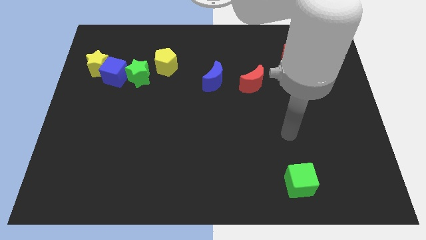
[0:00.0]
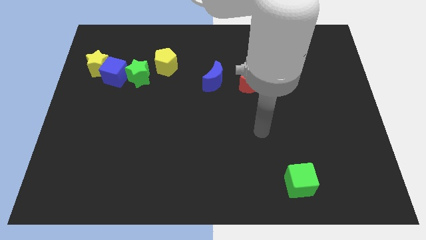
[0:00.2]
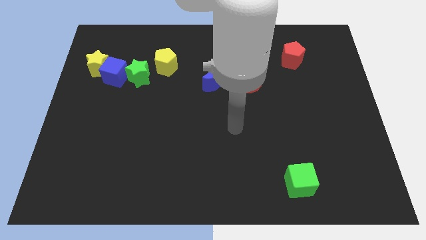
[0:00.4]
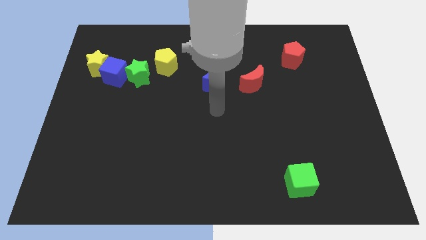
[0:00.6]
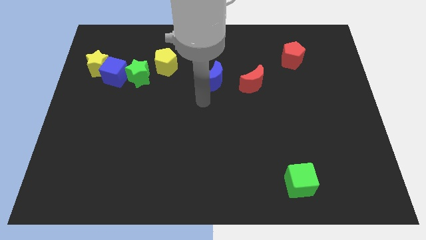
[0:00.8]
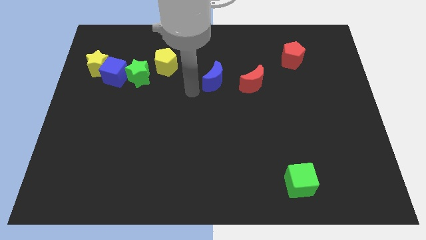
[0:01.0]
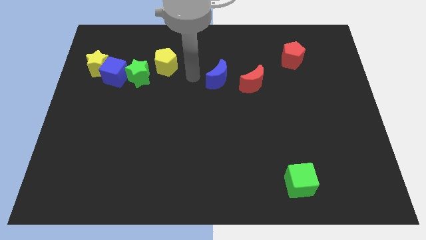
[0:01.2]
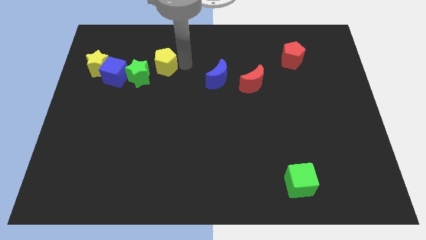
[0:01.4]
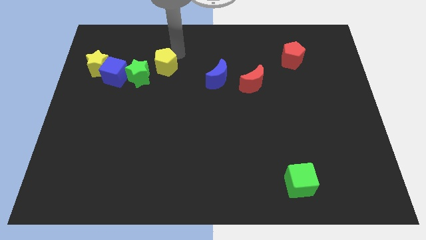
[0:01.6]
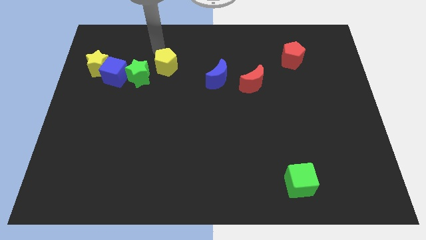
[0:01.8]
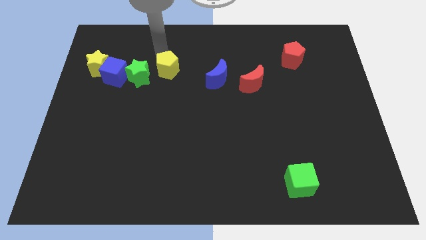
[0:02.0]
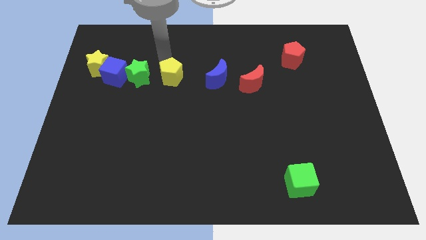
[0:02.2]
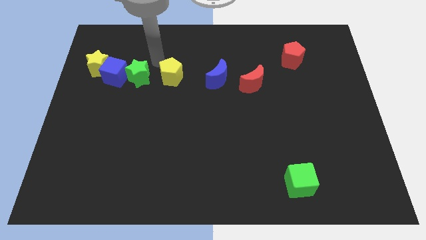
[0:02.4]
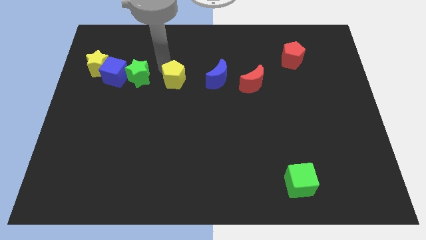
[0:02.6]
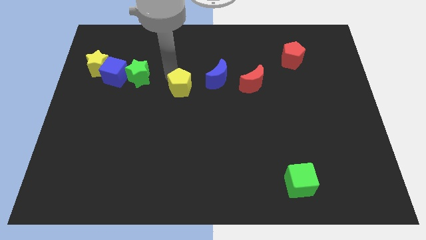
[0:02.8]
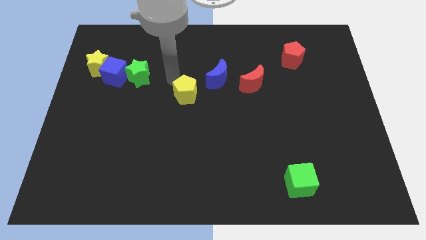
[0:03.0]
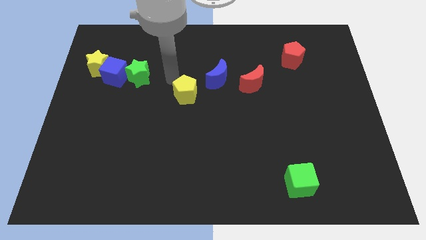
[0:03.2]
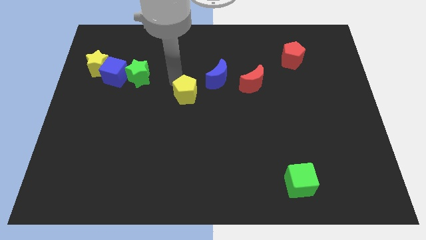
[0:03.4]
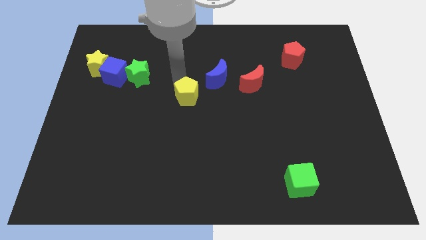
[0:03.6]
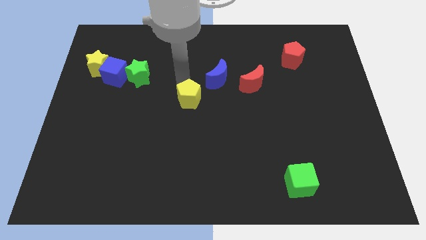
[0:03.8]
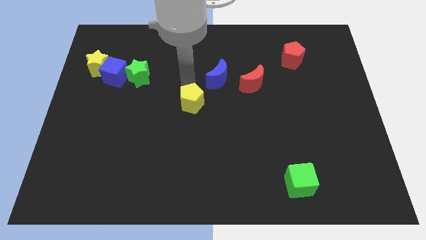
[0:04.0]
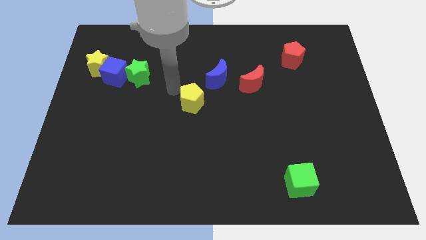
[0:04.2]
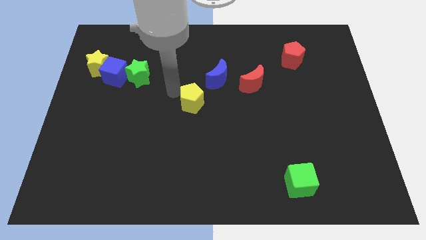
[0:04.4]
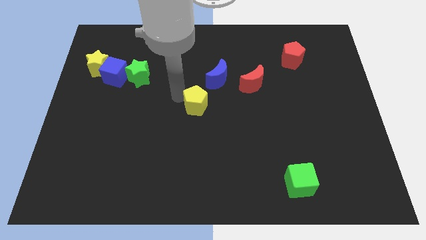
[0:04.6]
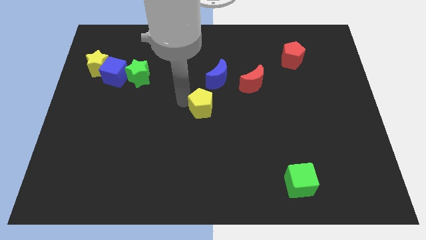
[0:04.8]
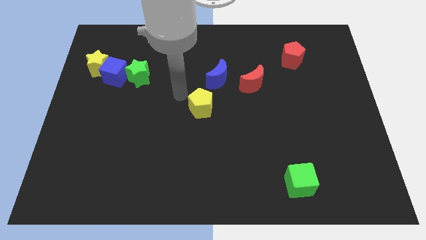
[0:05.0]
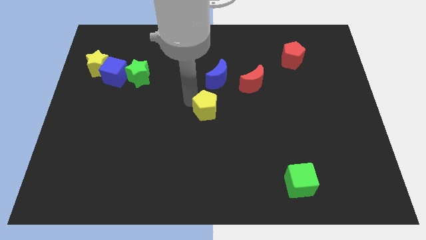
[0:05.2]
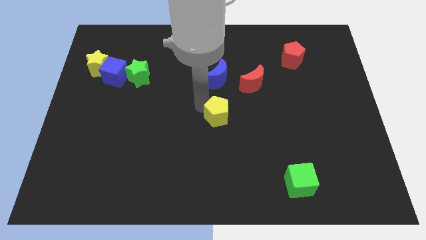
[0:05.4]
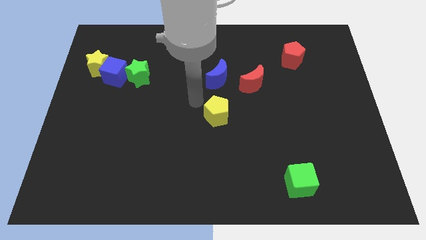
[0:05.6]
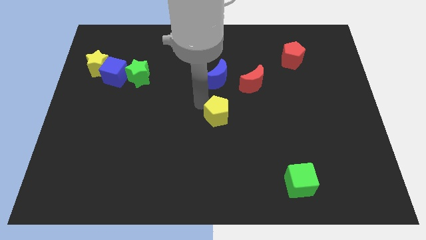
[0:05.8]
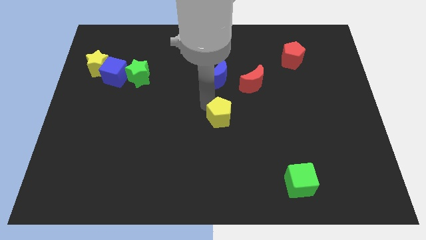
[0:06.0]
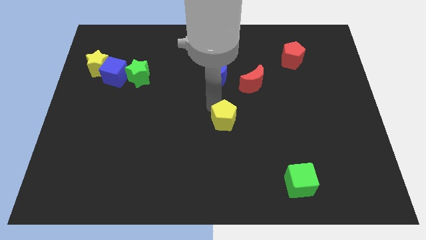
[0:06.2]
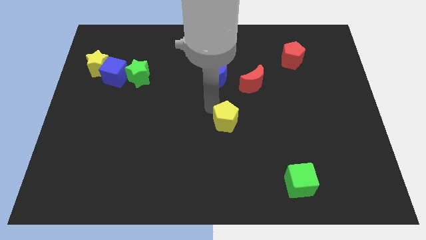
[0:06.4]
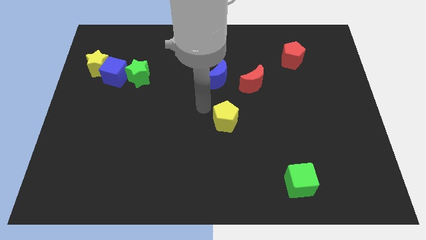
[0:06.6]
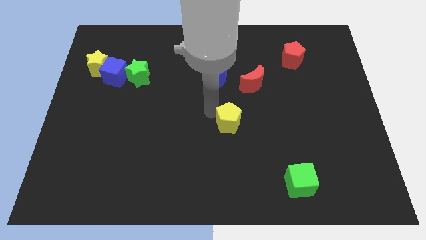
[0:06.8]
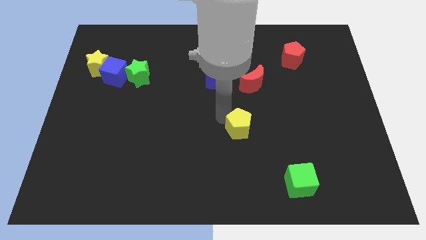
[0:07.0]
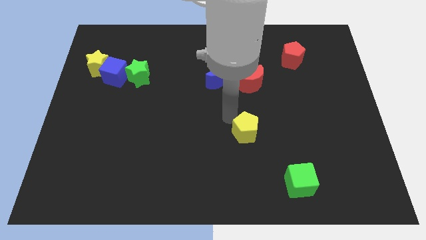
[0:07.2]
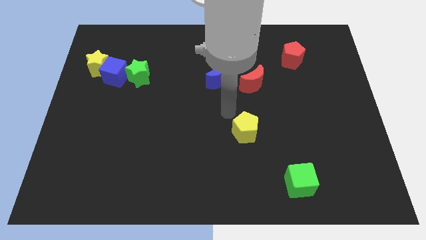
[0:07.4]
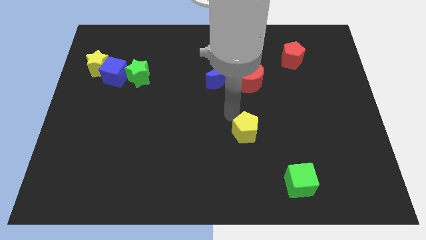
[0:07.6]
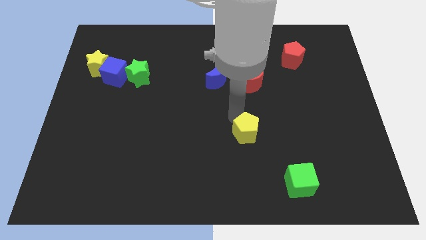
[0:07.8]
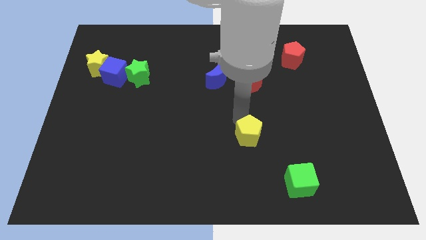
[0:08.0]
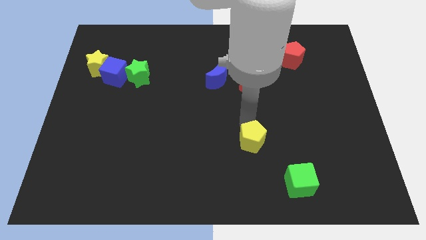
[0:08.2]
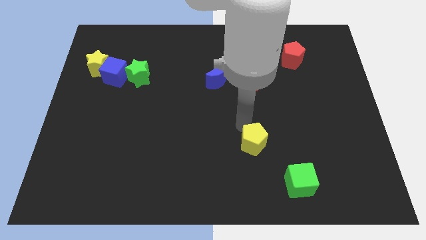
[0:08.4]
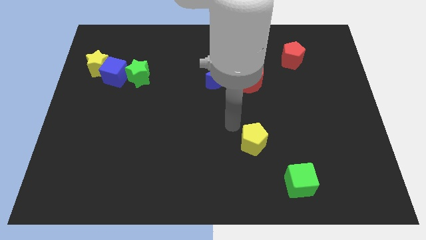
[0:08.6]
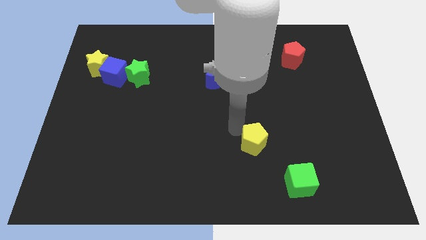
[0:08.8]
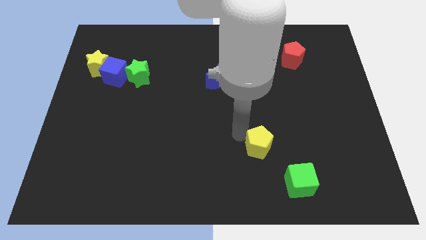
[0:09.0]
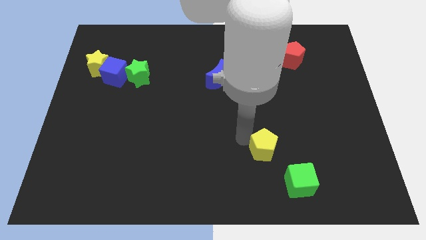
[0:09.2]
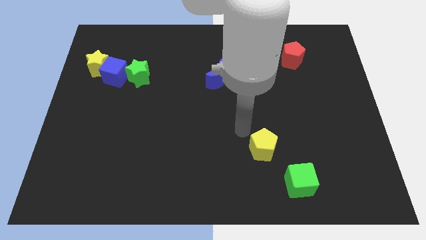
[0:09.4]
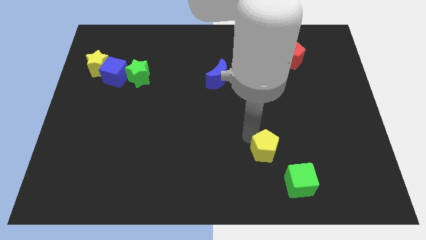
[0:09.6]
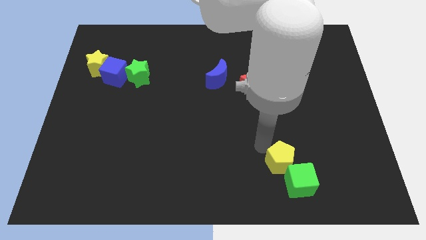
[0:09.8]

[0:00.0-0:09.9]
put the yellow pentagon close to the green cube

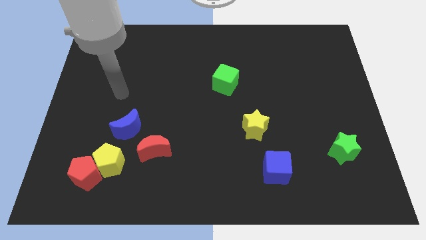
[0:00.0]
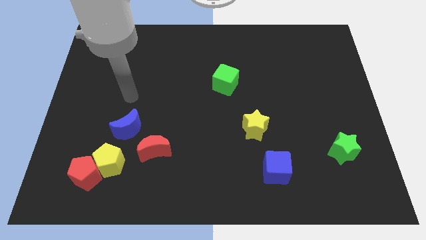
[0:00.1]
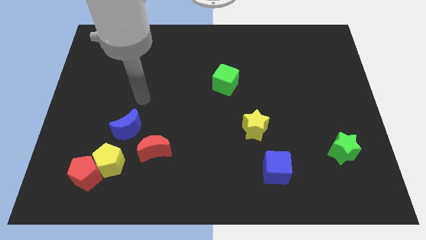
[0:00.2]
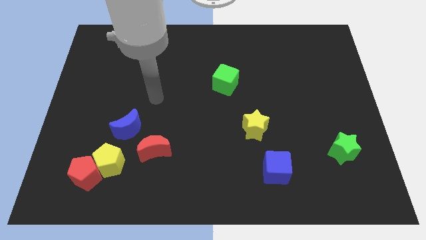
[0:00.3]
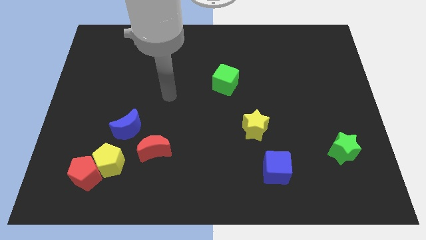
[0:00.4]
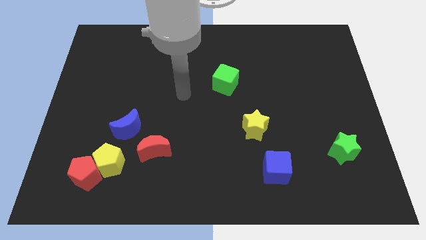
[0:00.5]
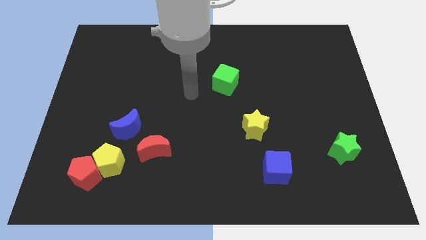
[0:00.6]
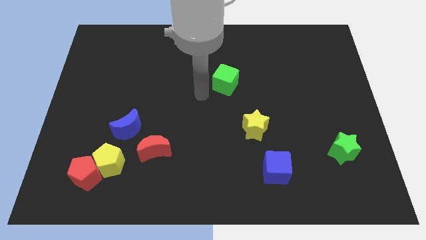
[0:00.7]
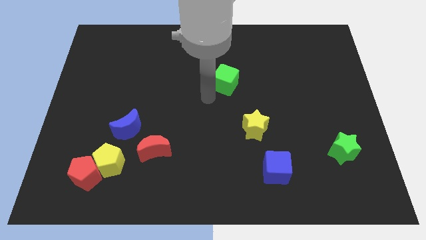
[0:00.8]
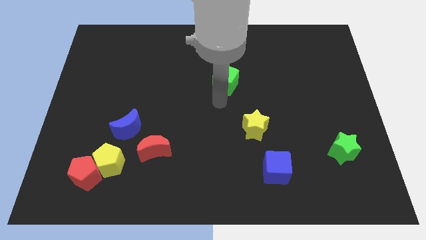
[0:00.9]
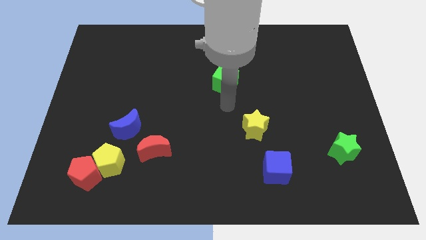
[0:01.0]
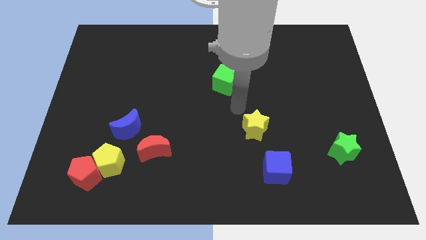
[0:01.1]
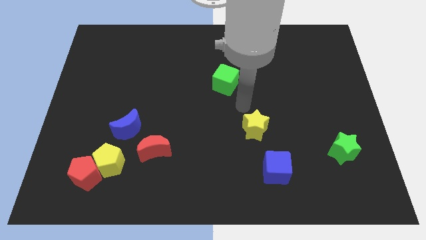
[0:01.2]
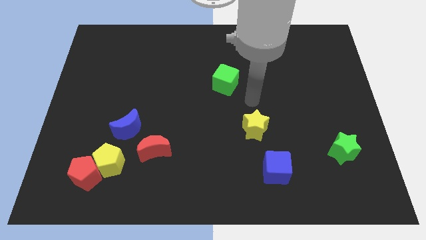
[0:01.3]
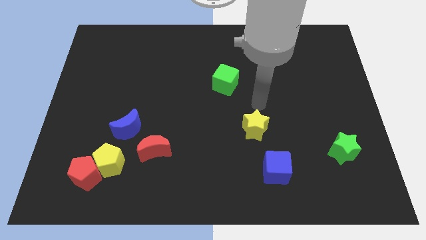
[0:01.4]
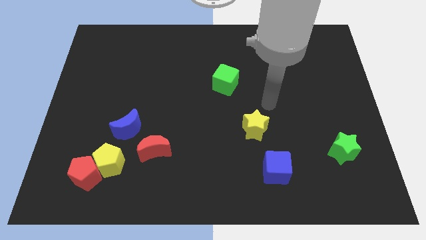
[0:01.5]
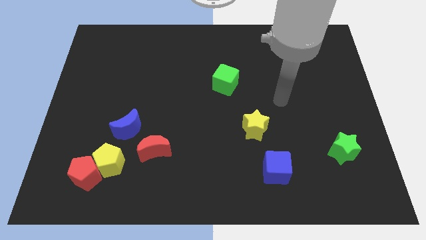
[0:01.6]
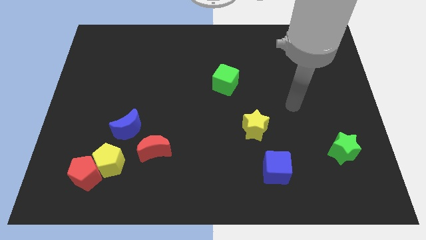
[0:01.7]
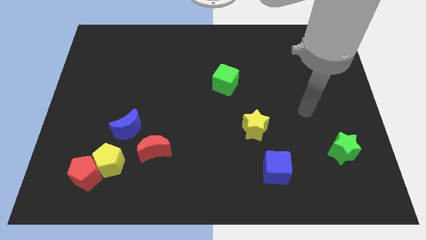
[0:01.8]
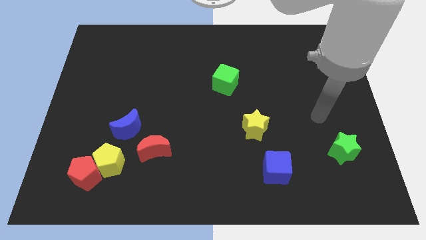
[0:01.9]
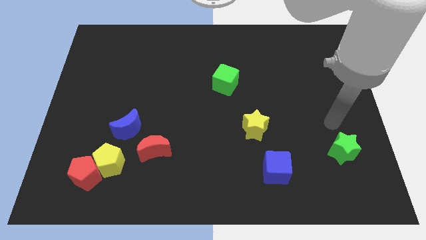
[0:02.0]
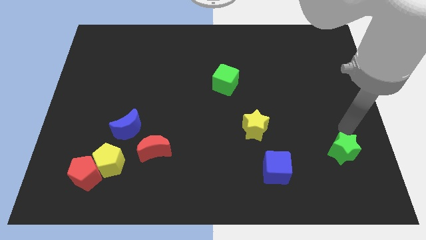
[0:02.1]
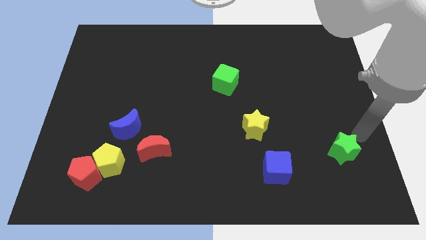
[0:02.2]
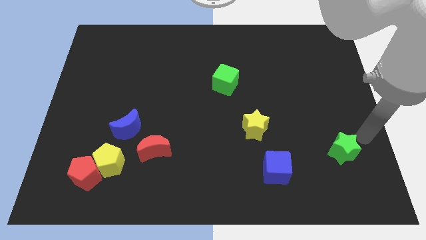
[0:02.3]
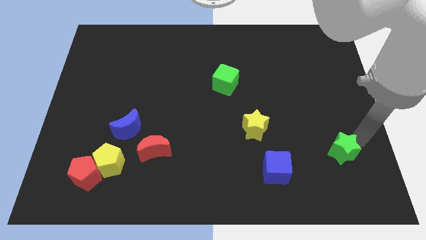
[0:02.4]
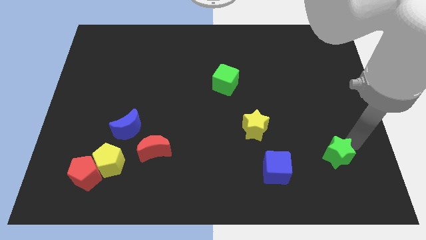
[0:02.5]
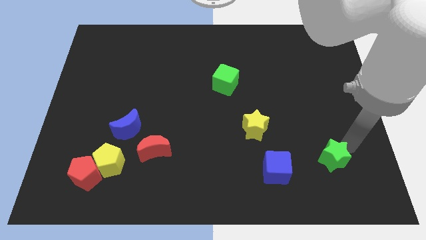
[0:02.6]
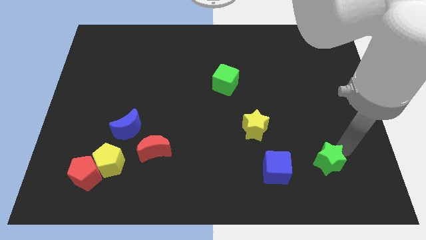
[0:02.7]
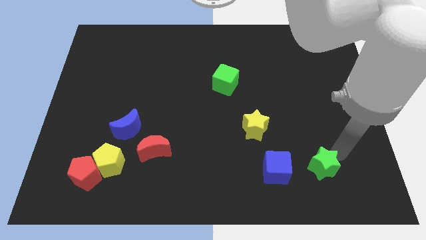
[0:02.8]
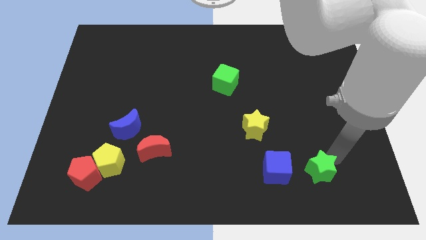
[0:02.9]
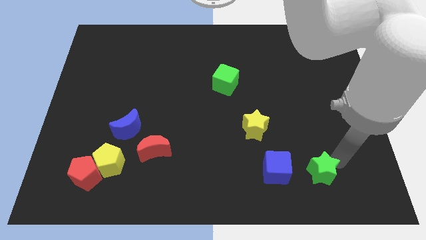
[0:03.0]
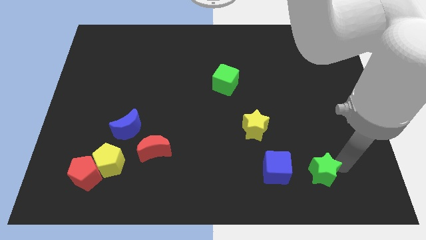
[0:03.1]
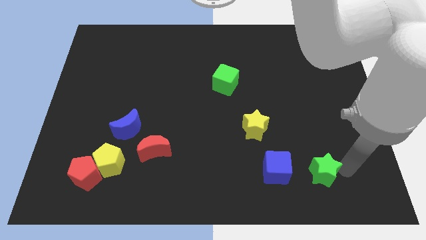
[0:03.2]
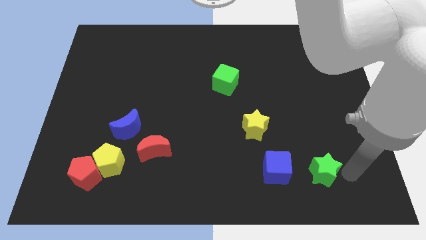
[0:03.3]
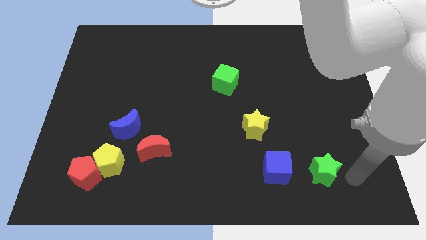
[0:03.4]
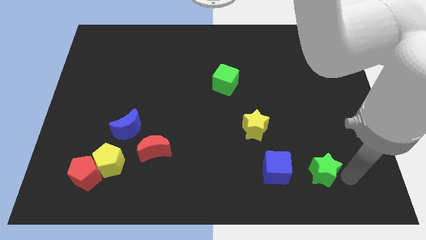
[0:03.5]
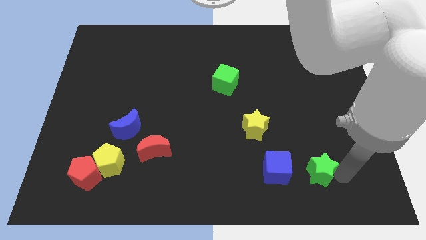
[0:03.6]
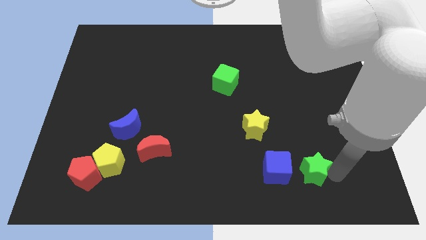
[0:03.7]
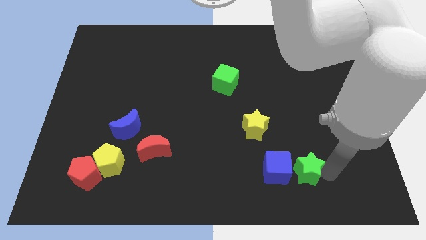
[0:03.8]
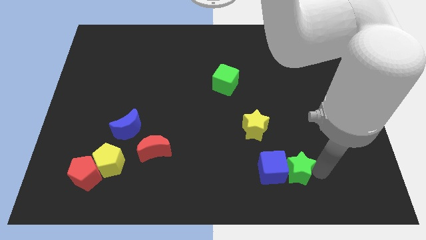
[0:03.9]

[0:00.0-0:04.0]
move the green star close to the blue cube
